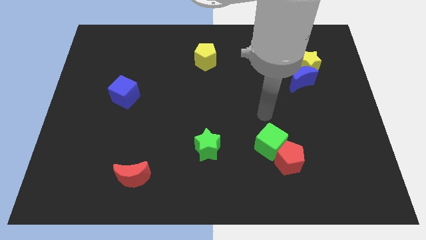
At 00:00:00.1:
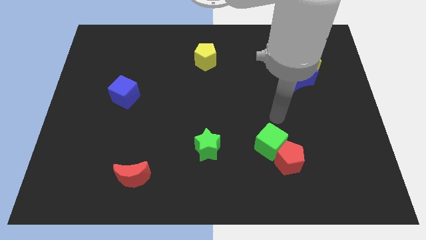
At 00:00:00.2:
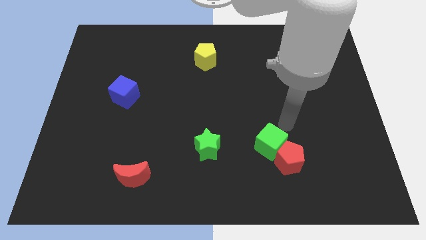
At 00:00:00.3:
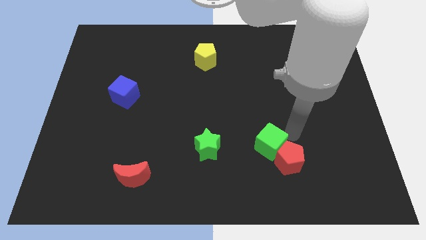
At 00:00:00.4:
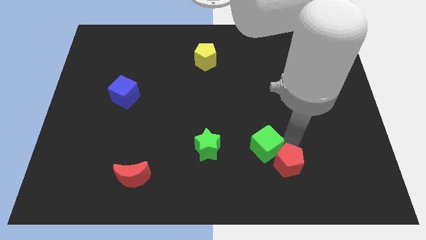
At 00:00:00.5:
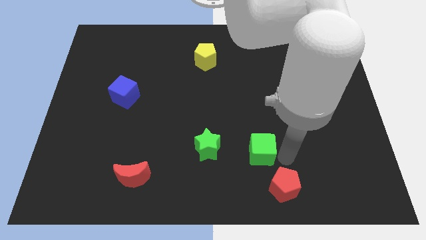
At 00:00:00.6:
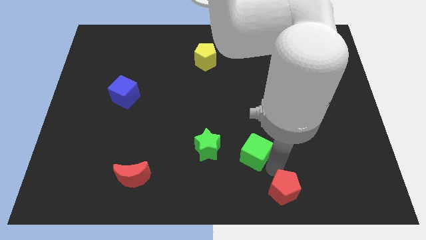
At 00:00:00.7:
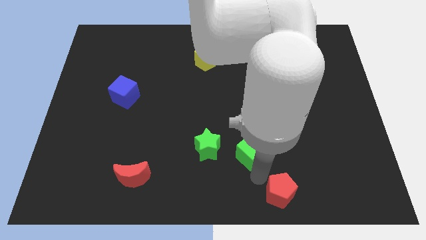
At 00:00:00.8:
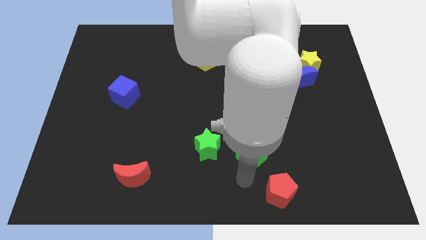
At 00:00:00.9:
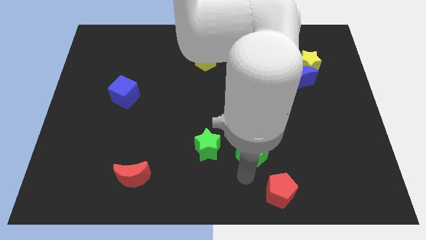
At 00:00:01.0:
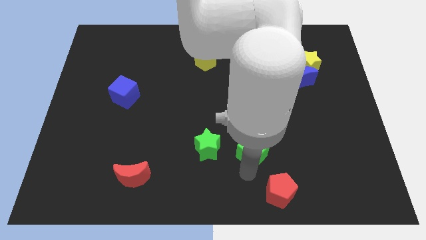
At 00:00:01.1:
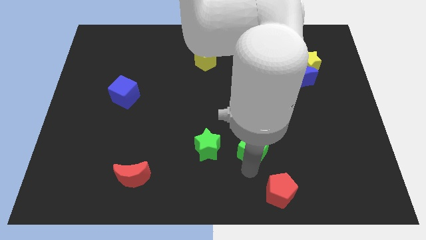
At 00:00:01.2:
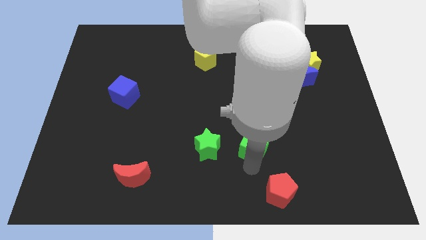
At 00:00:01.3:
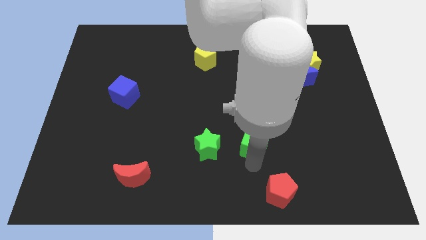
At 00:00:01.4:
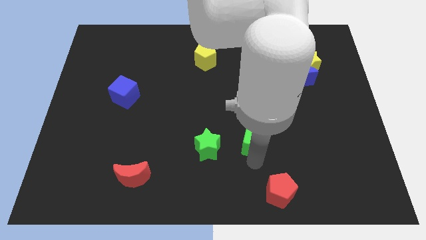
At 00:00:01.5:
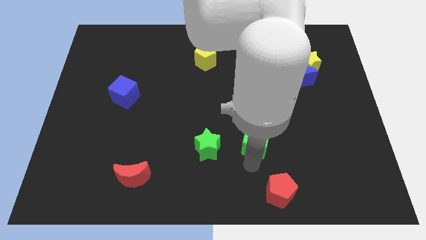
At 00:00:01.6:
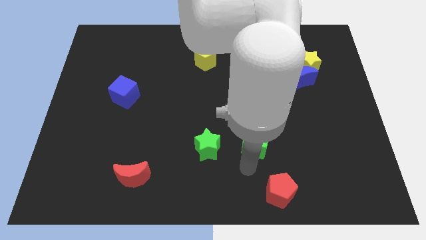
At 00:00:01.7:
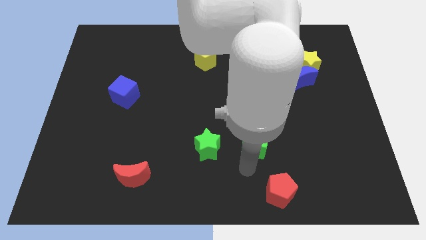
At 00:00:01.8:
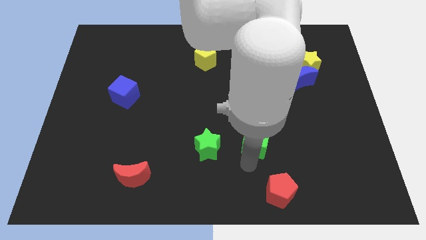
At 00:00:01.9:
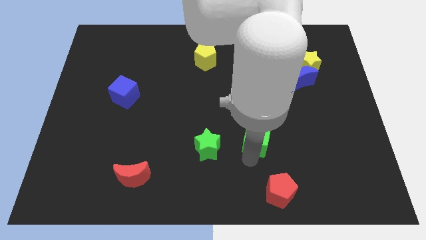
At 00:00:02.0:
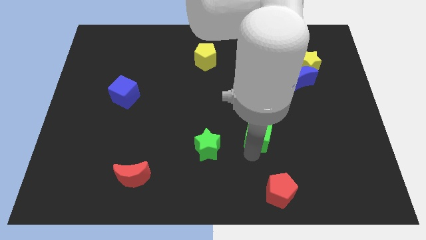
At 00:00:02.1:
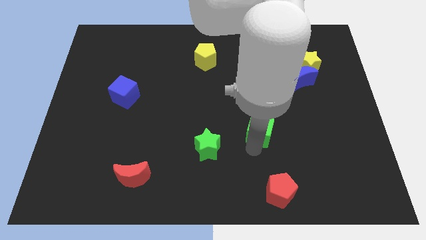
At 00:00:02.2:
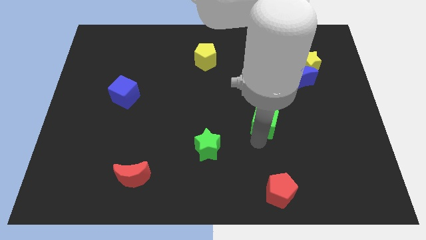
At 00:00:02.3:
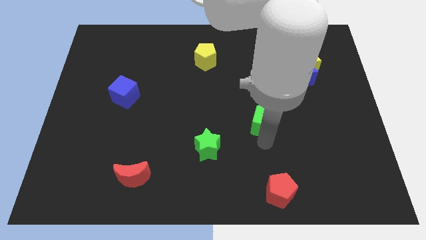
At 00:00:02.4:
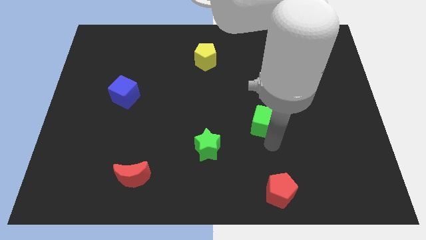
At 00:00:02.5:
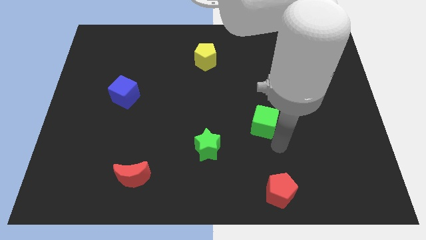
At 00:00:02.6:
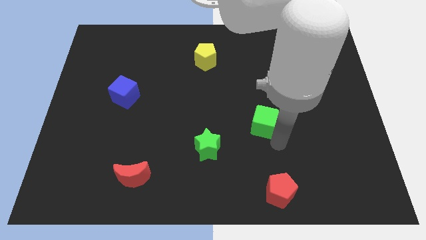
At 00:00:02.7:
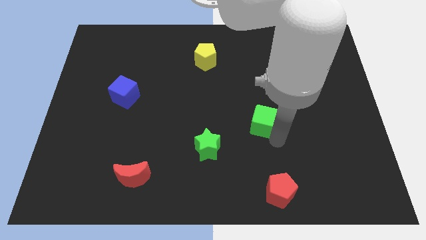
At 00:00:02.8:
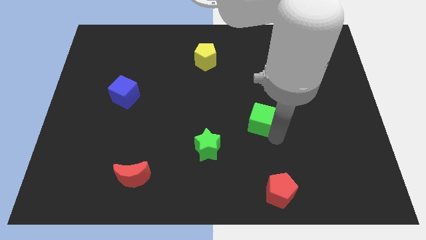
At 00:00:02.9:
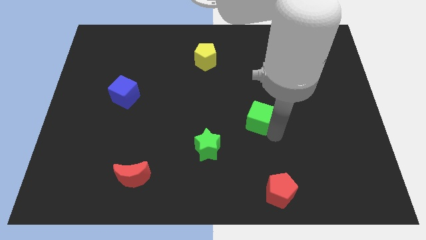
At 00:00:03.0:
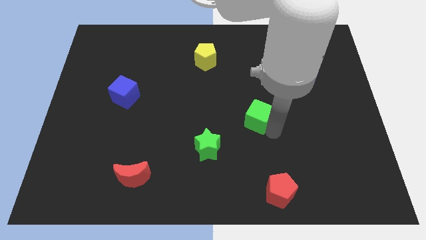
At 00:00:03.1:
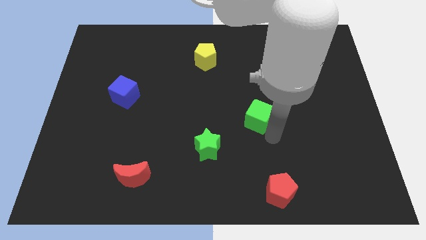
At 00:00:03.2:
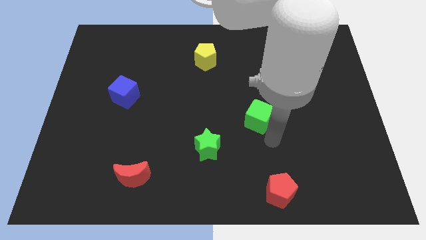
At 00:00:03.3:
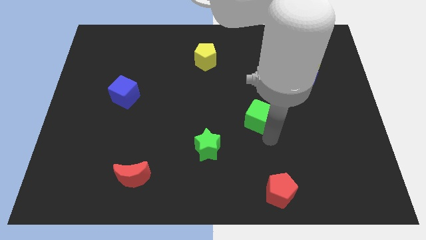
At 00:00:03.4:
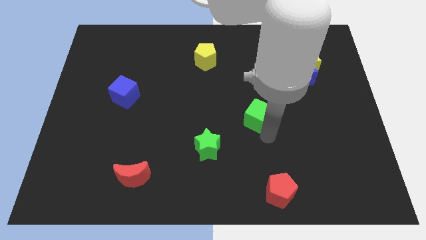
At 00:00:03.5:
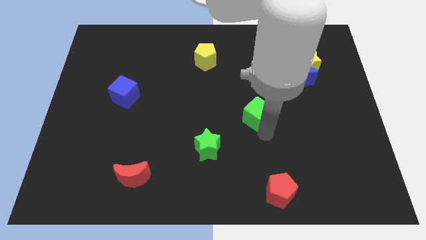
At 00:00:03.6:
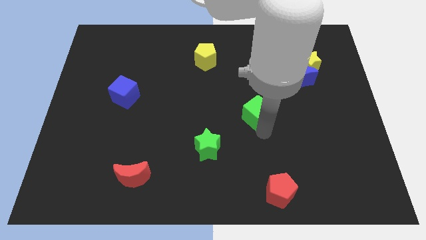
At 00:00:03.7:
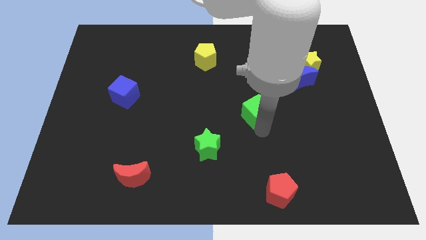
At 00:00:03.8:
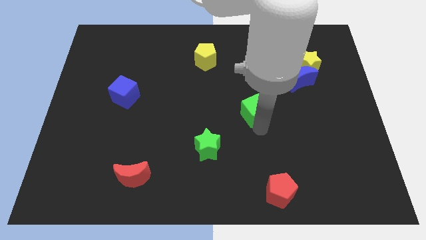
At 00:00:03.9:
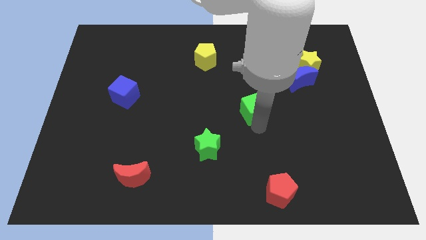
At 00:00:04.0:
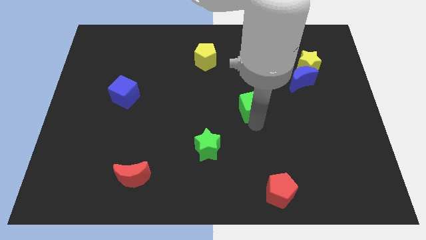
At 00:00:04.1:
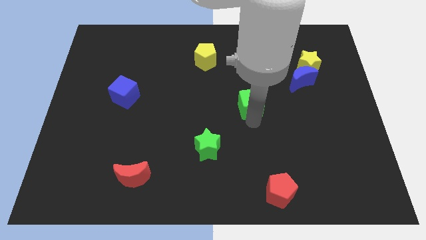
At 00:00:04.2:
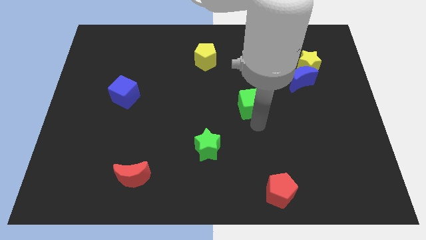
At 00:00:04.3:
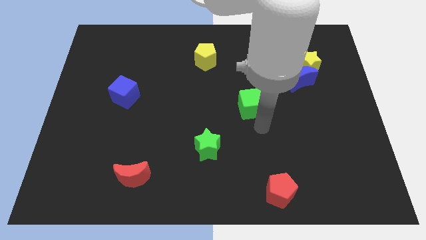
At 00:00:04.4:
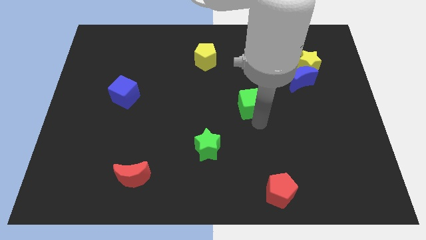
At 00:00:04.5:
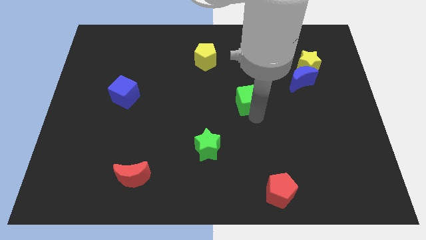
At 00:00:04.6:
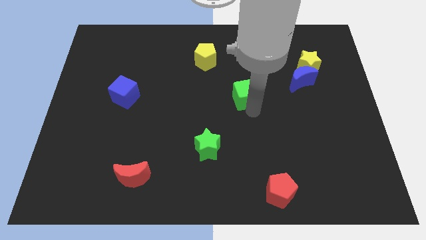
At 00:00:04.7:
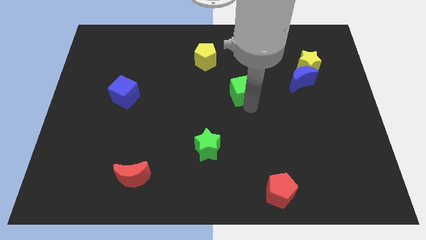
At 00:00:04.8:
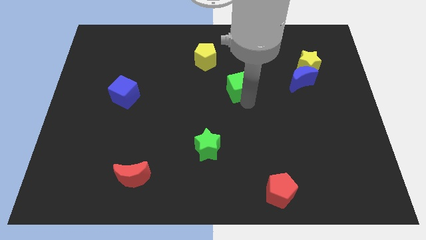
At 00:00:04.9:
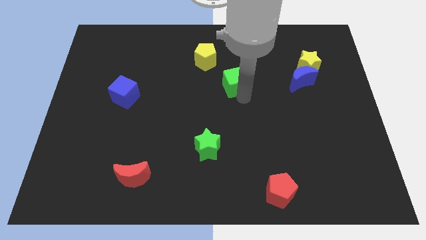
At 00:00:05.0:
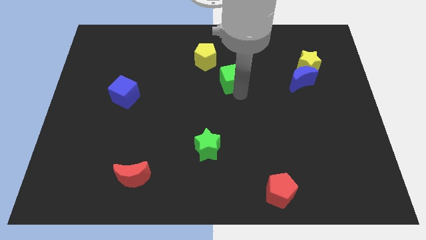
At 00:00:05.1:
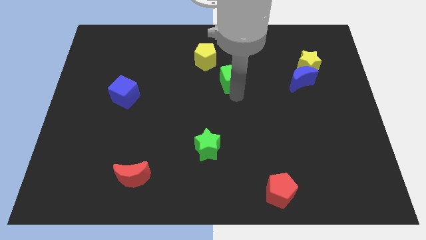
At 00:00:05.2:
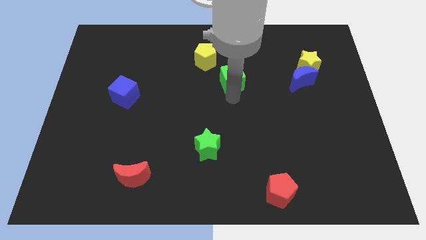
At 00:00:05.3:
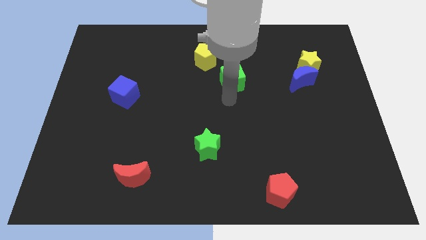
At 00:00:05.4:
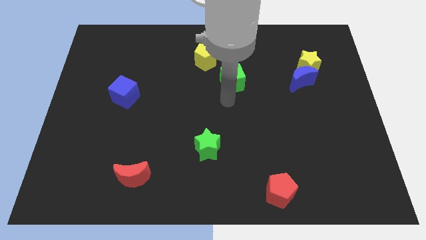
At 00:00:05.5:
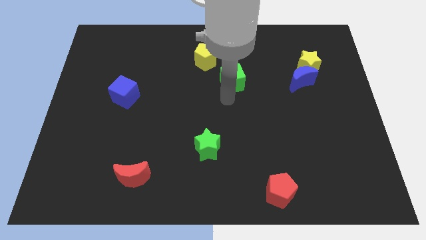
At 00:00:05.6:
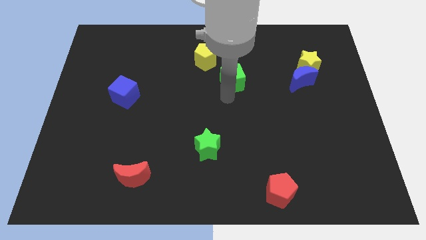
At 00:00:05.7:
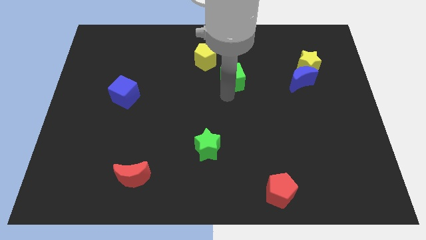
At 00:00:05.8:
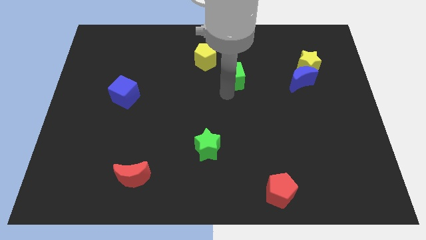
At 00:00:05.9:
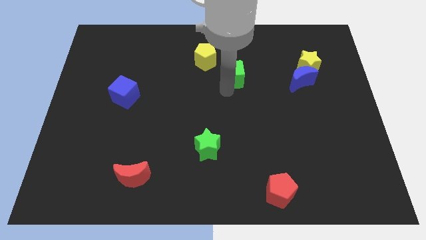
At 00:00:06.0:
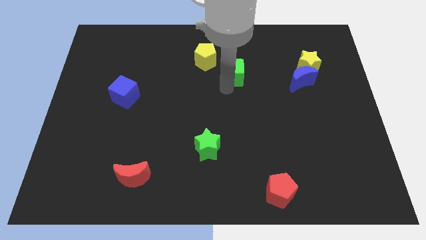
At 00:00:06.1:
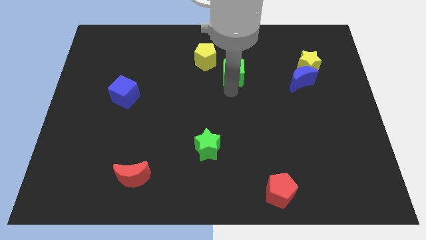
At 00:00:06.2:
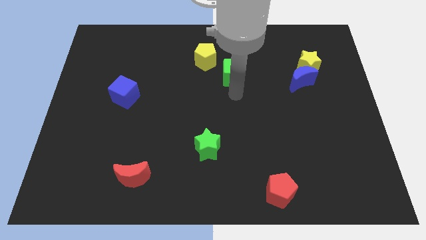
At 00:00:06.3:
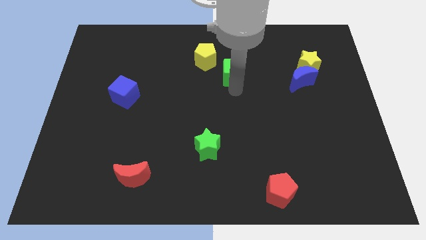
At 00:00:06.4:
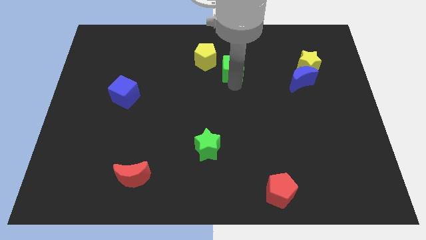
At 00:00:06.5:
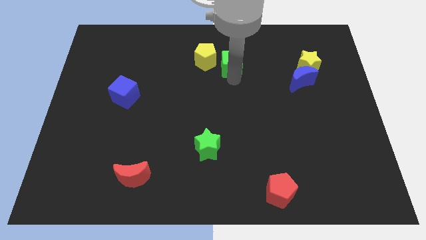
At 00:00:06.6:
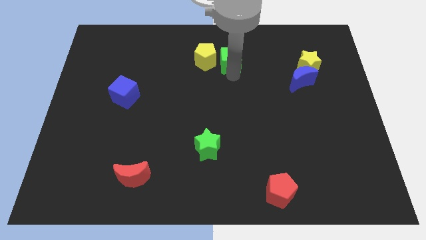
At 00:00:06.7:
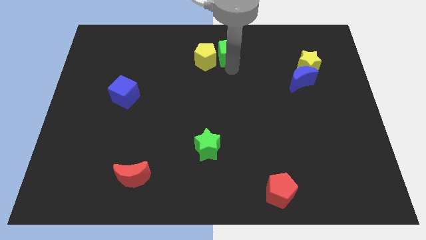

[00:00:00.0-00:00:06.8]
push the green cube to the top
